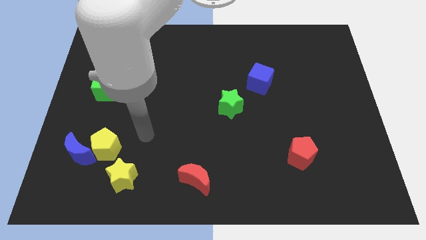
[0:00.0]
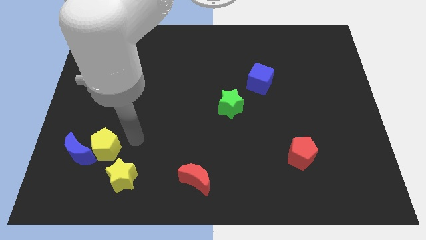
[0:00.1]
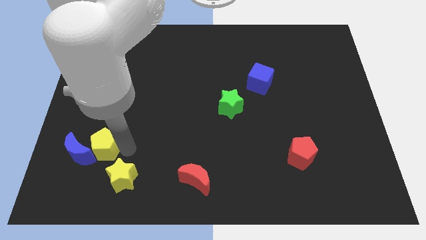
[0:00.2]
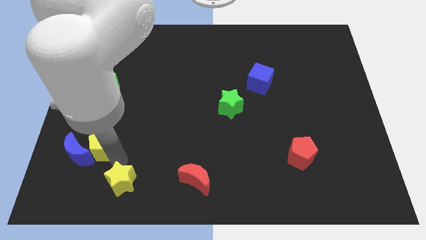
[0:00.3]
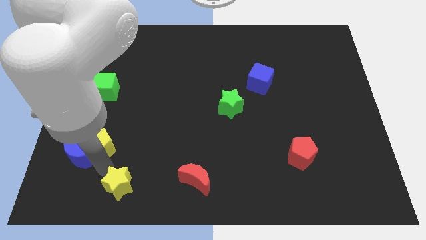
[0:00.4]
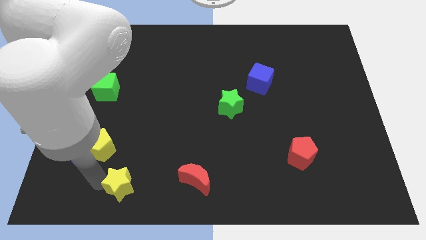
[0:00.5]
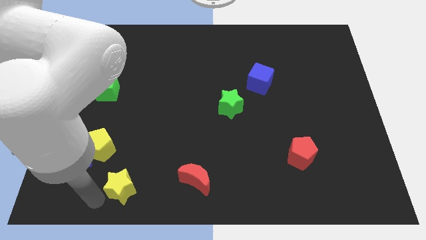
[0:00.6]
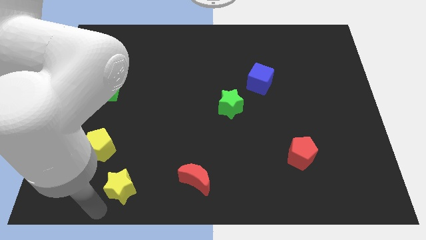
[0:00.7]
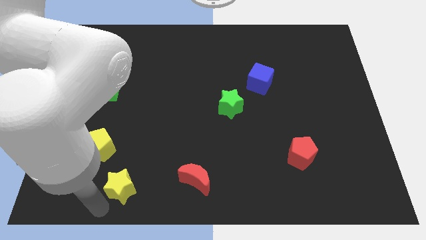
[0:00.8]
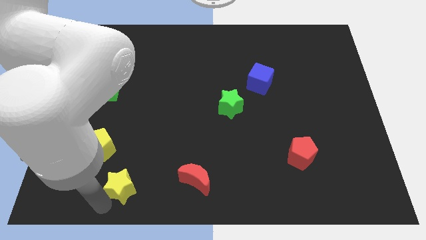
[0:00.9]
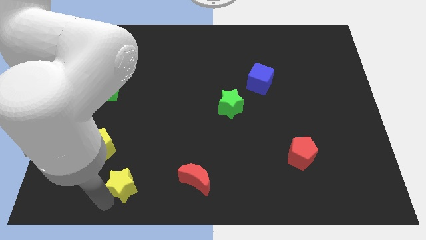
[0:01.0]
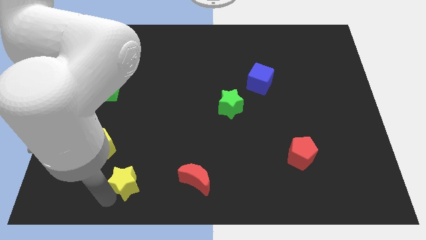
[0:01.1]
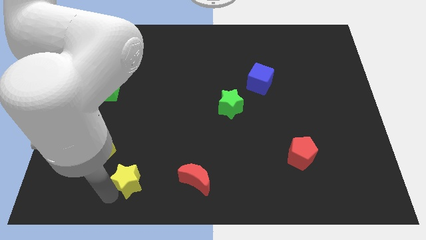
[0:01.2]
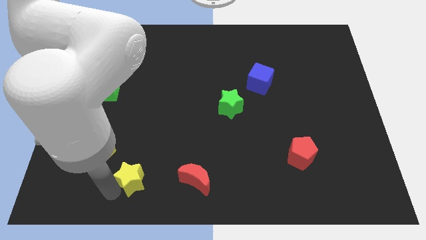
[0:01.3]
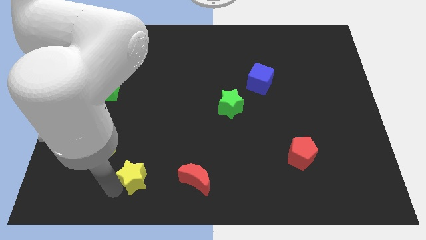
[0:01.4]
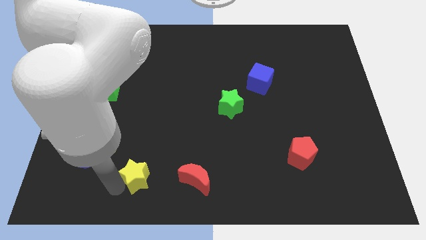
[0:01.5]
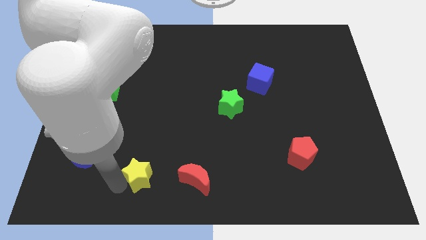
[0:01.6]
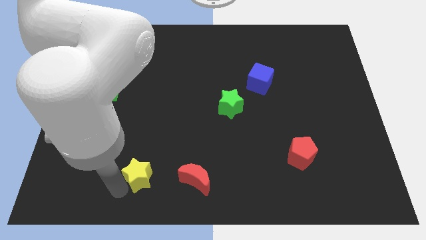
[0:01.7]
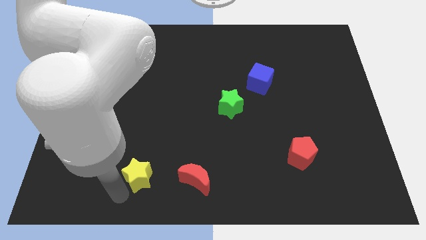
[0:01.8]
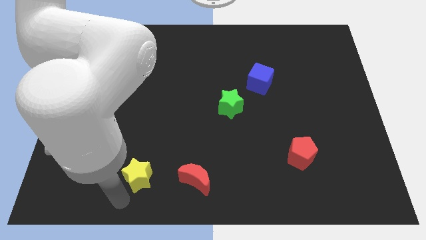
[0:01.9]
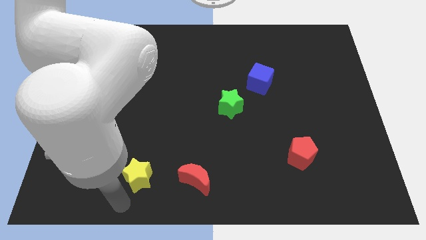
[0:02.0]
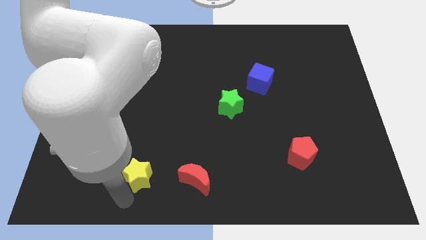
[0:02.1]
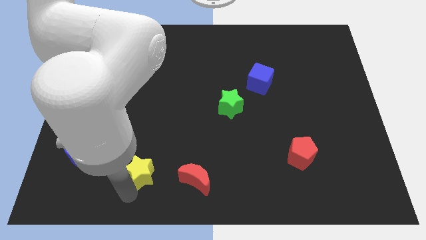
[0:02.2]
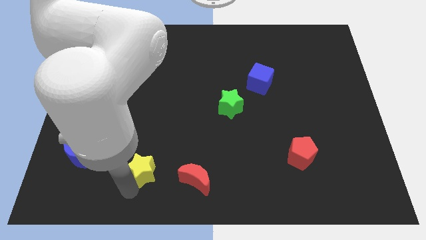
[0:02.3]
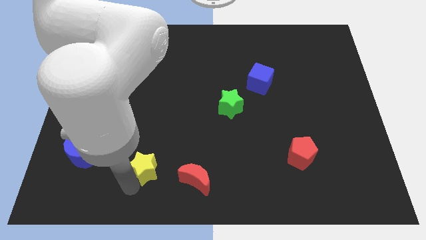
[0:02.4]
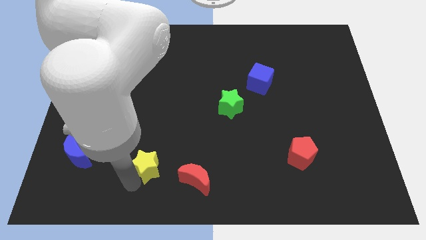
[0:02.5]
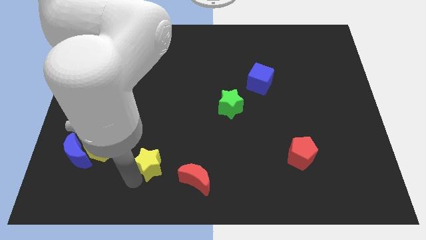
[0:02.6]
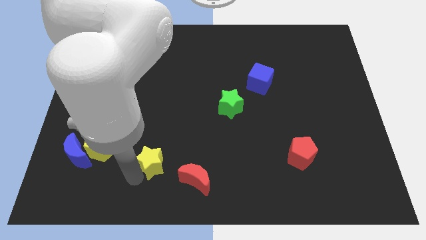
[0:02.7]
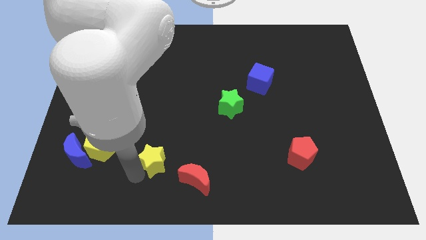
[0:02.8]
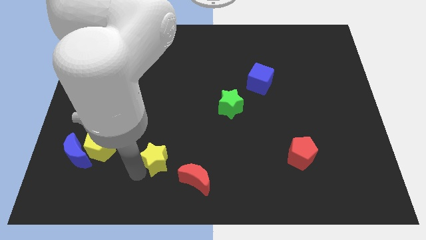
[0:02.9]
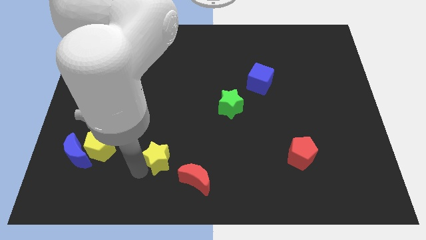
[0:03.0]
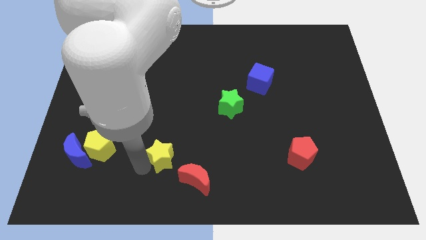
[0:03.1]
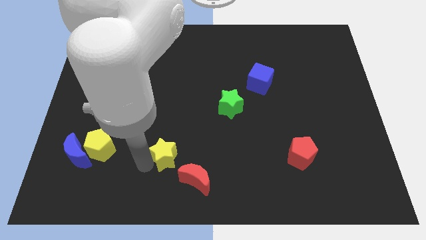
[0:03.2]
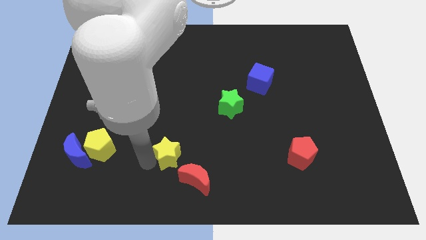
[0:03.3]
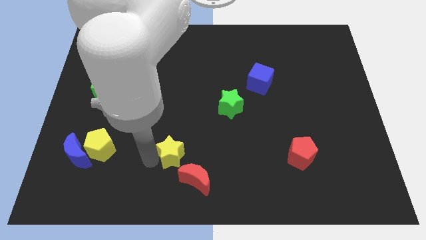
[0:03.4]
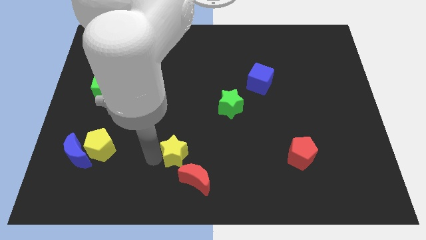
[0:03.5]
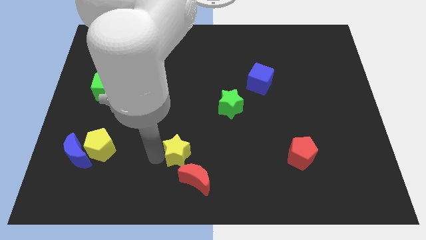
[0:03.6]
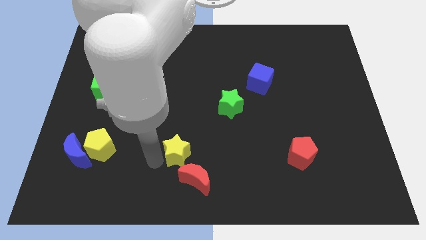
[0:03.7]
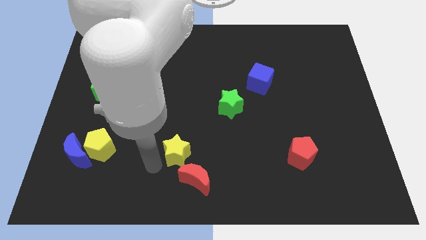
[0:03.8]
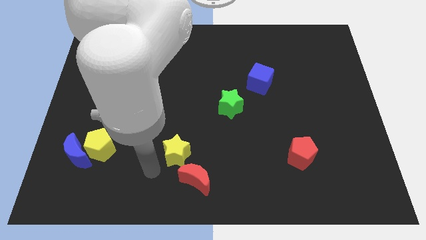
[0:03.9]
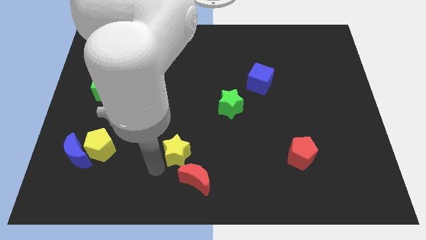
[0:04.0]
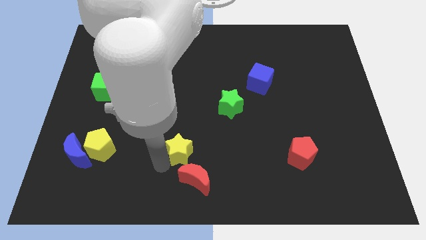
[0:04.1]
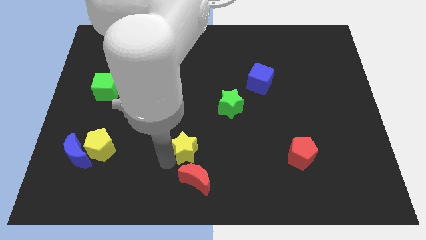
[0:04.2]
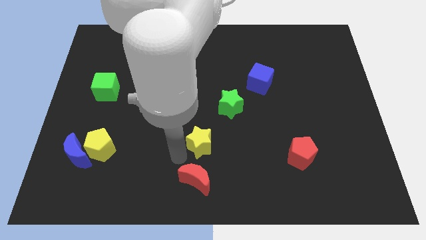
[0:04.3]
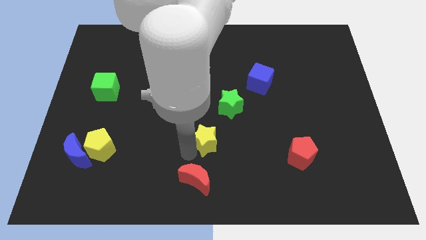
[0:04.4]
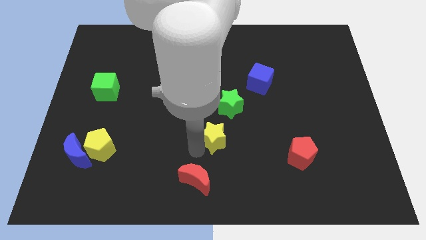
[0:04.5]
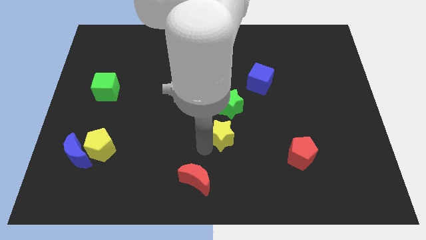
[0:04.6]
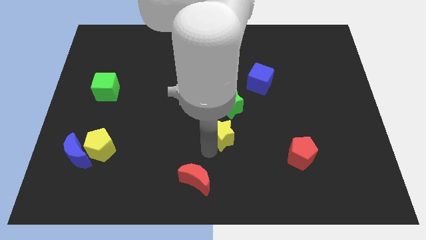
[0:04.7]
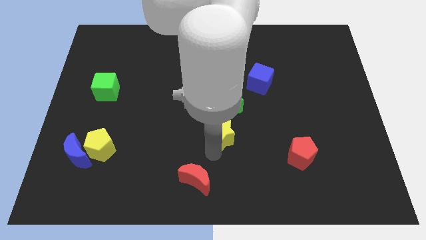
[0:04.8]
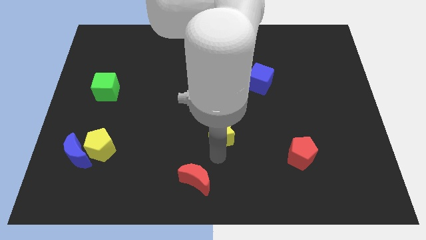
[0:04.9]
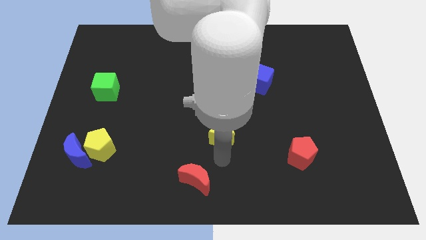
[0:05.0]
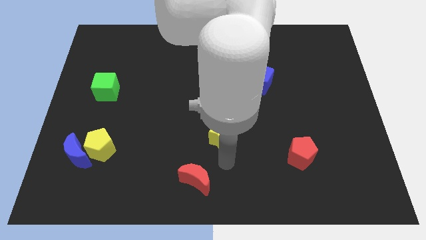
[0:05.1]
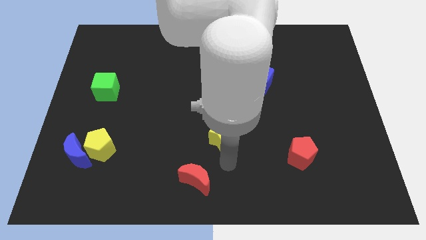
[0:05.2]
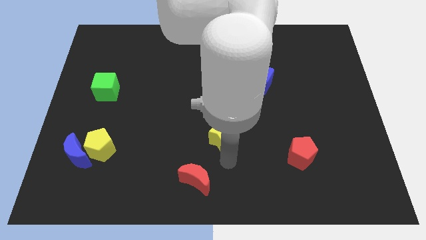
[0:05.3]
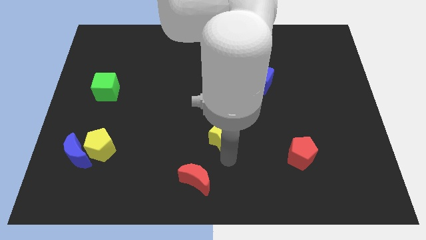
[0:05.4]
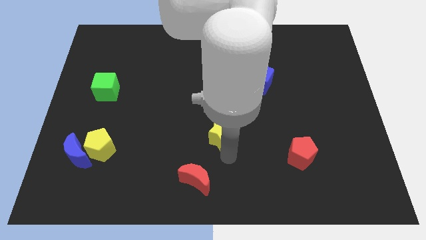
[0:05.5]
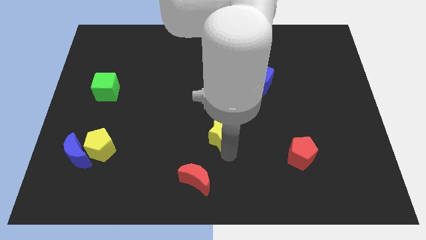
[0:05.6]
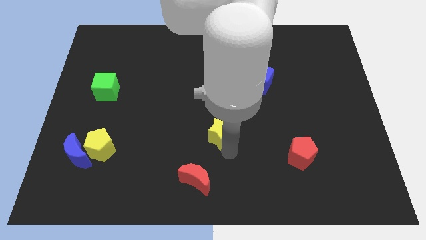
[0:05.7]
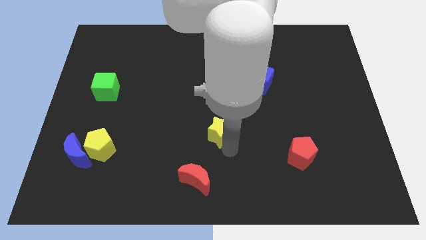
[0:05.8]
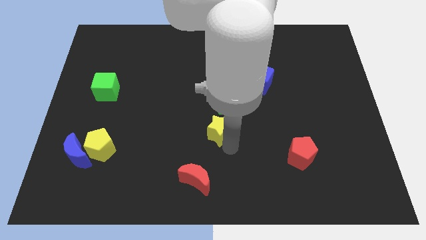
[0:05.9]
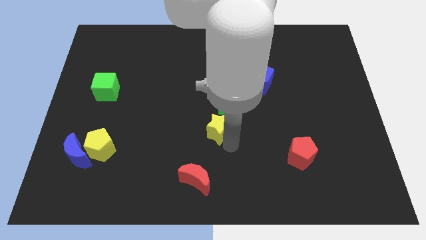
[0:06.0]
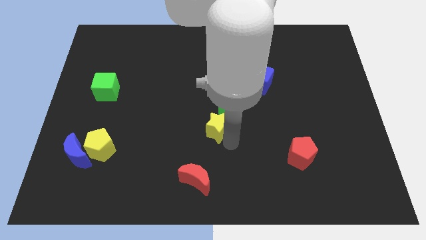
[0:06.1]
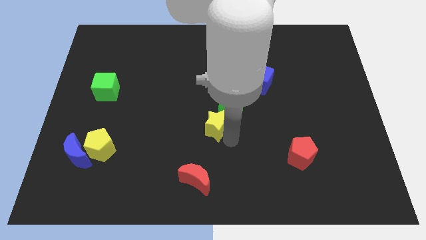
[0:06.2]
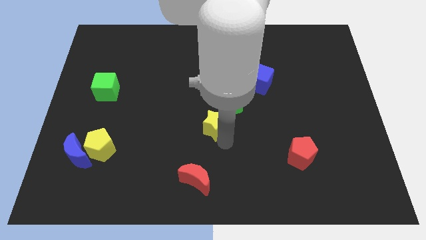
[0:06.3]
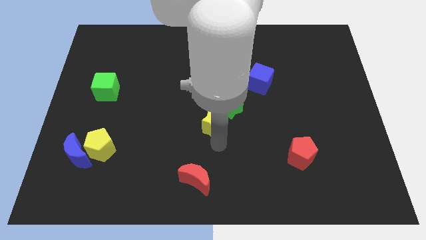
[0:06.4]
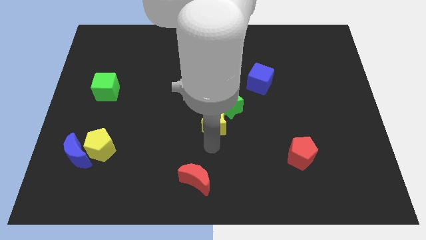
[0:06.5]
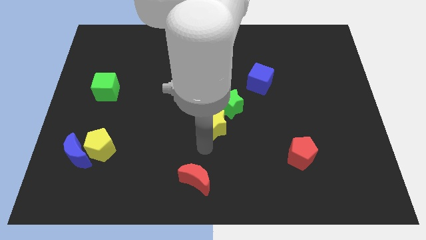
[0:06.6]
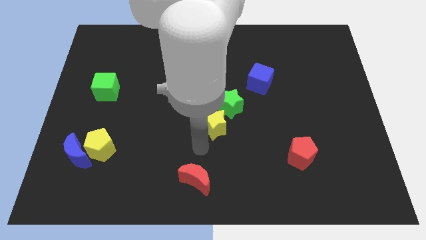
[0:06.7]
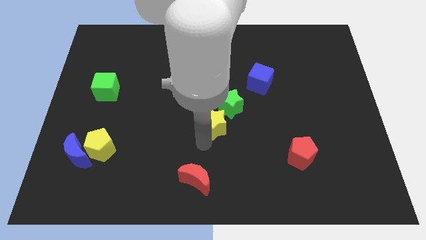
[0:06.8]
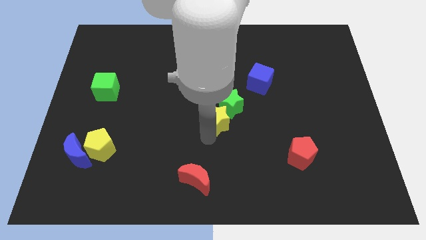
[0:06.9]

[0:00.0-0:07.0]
put the yellow star to the green star

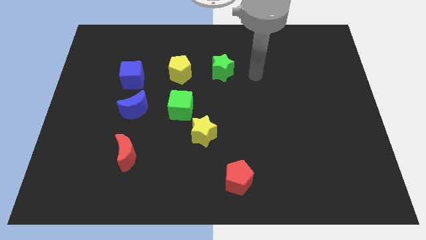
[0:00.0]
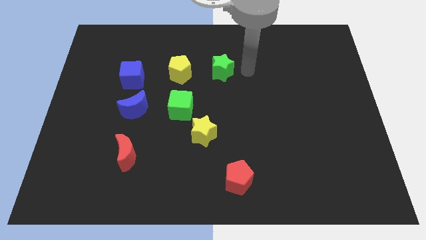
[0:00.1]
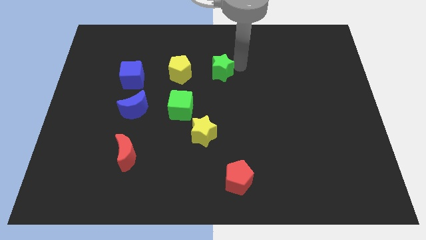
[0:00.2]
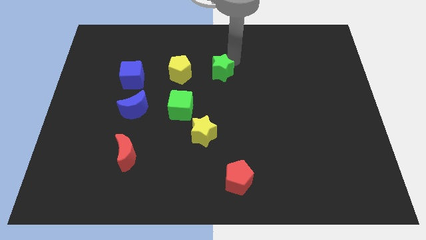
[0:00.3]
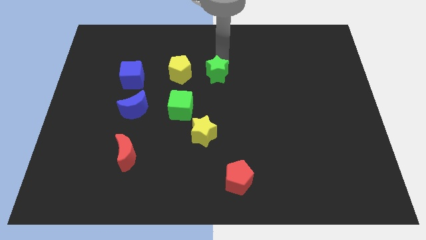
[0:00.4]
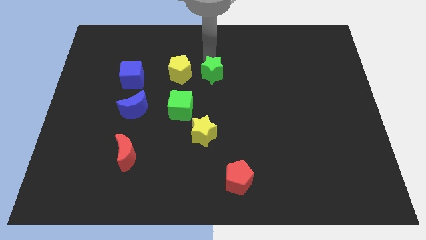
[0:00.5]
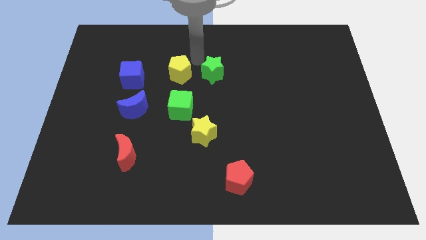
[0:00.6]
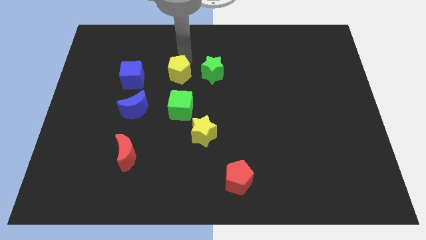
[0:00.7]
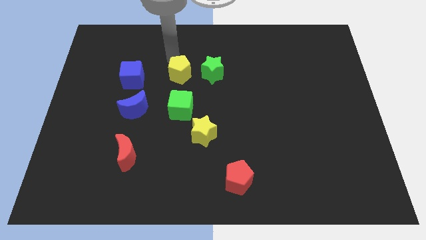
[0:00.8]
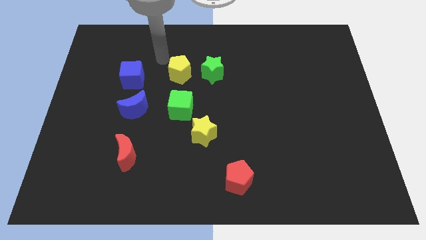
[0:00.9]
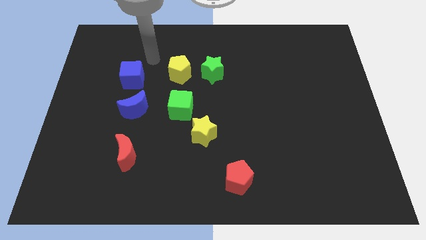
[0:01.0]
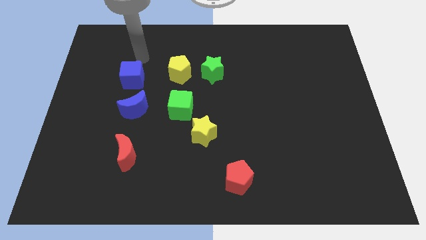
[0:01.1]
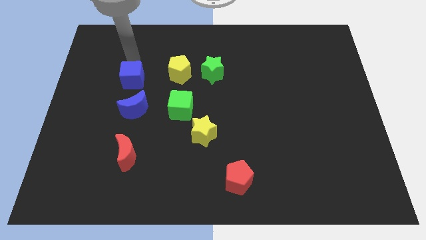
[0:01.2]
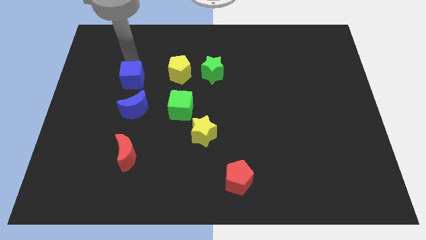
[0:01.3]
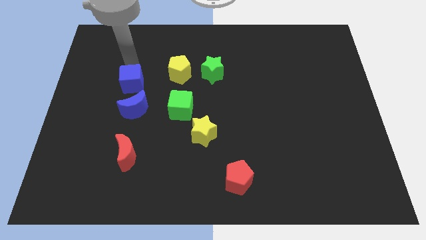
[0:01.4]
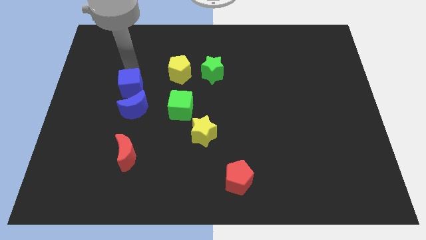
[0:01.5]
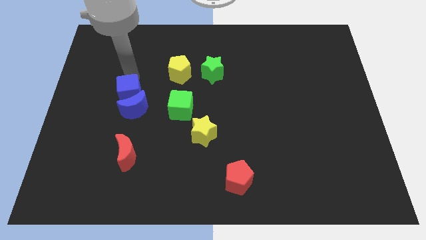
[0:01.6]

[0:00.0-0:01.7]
move the blue cube towards the blue moon
